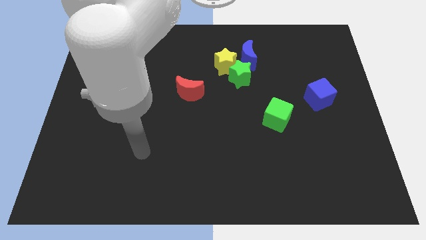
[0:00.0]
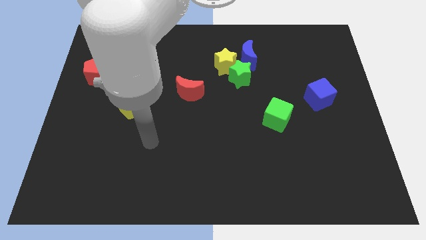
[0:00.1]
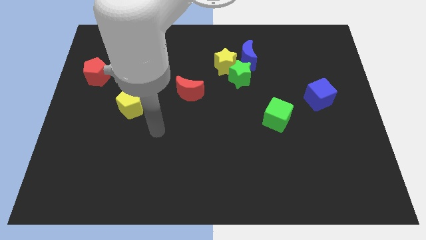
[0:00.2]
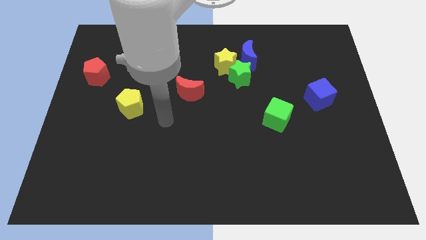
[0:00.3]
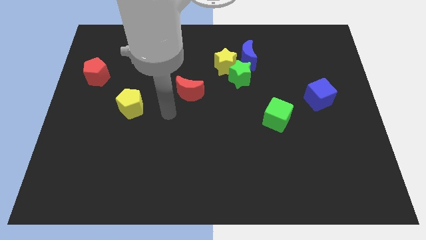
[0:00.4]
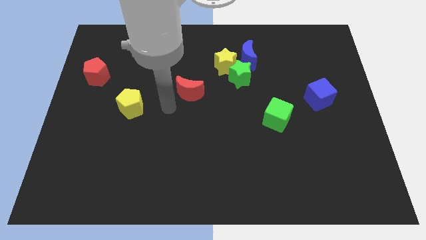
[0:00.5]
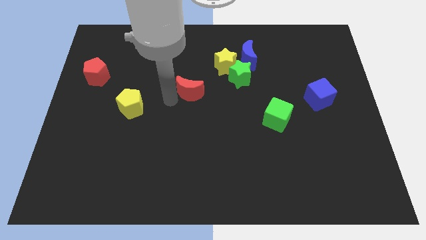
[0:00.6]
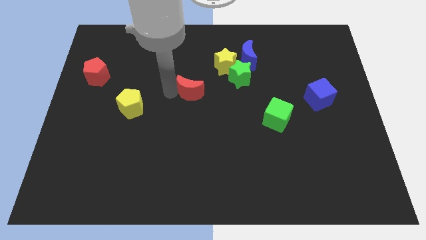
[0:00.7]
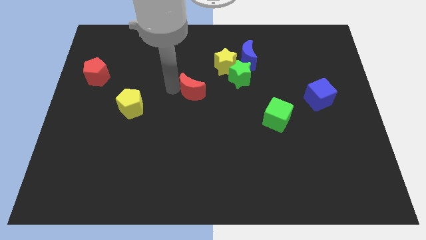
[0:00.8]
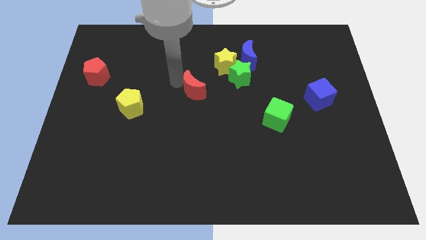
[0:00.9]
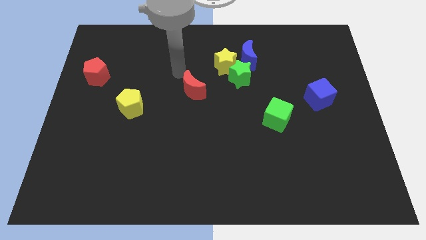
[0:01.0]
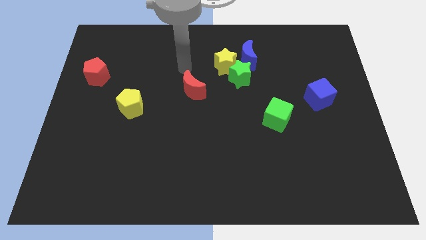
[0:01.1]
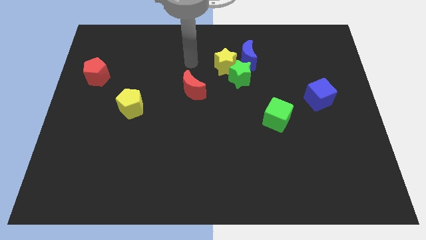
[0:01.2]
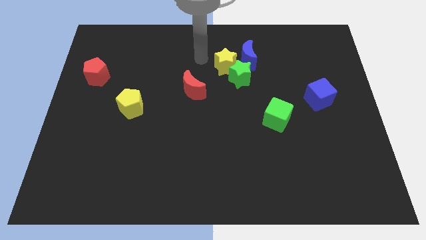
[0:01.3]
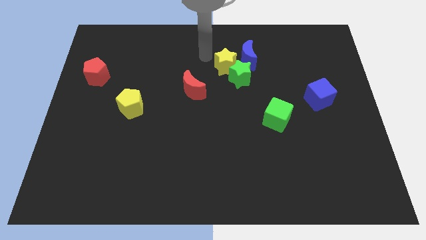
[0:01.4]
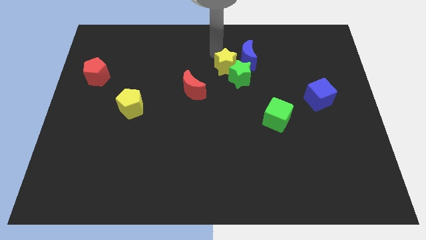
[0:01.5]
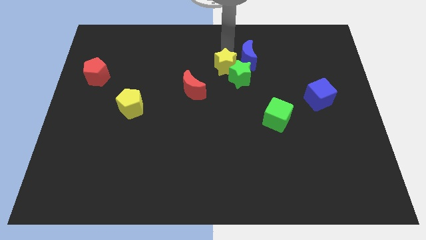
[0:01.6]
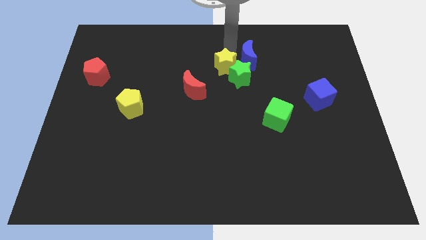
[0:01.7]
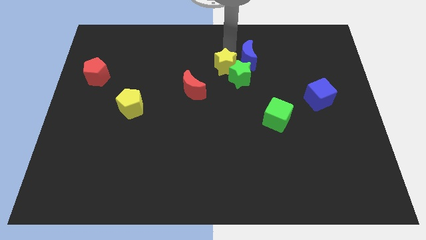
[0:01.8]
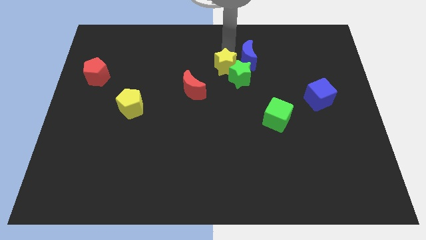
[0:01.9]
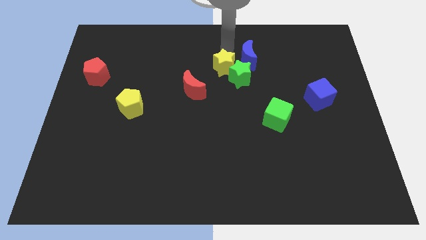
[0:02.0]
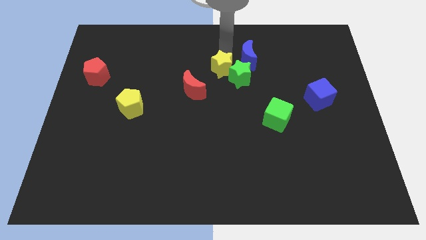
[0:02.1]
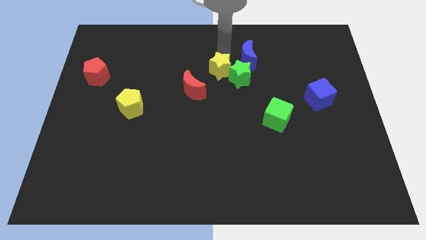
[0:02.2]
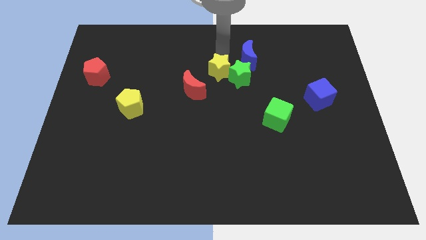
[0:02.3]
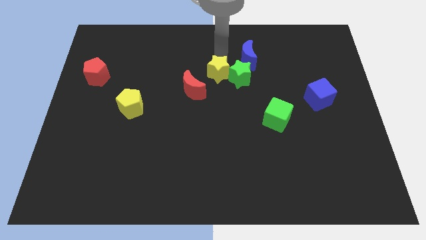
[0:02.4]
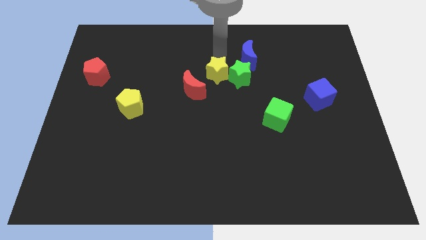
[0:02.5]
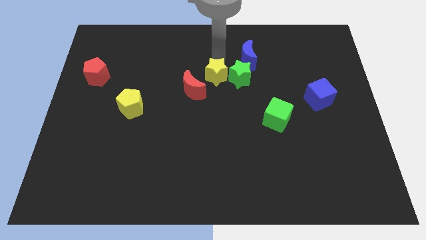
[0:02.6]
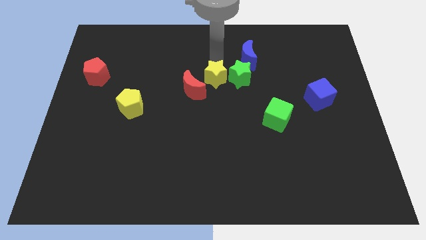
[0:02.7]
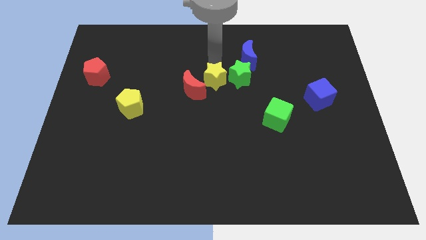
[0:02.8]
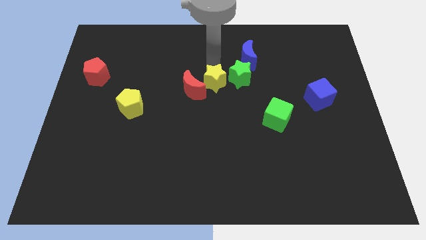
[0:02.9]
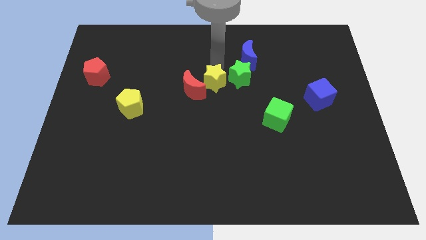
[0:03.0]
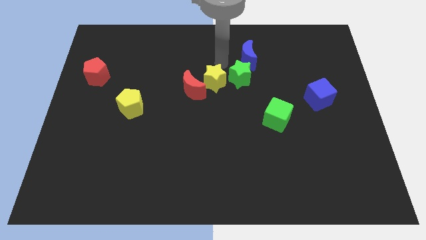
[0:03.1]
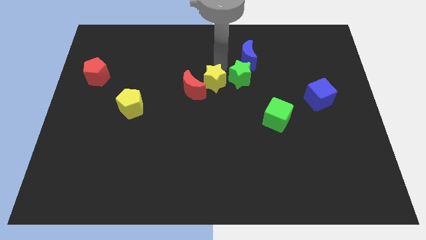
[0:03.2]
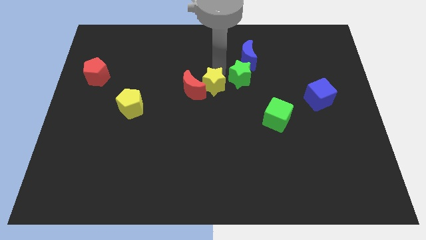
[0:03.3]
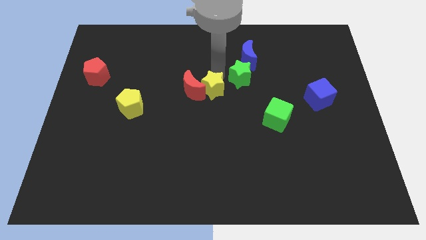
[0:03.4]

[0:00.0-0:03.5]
slide the yellow star down and left diagonally slightly

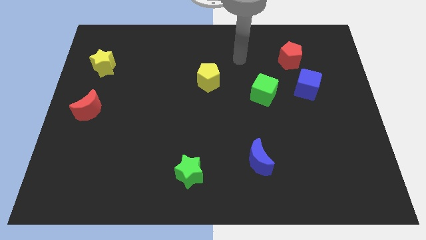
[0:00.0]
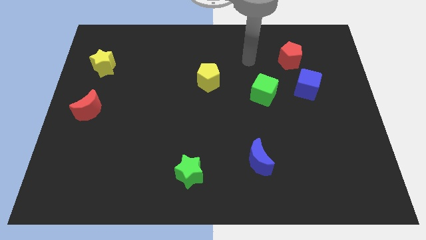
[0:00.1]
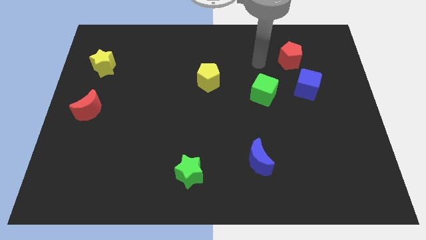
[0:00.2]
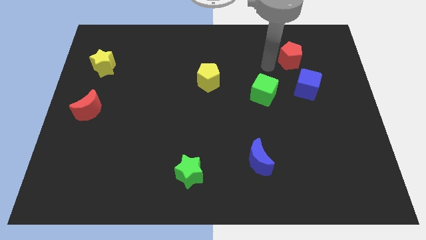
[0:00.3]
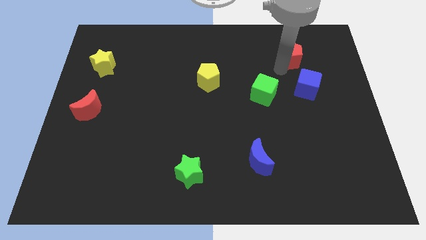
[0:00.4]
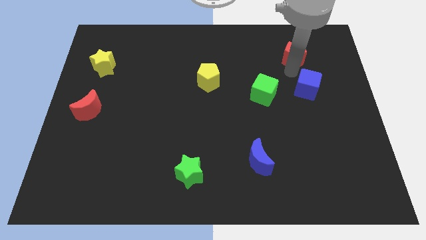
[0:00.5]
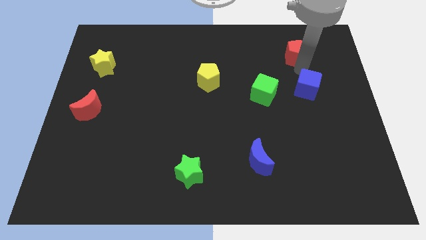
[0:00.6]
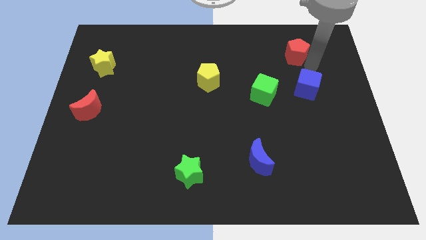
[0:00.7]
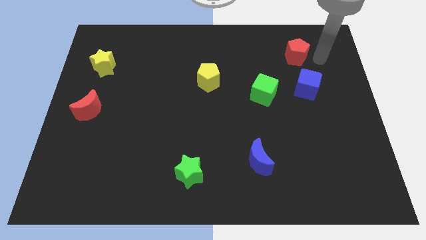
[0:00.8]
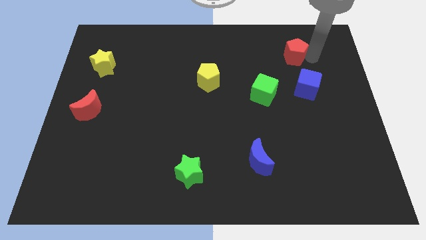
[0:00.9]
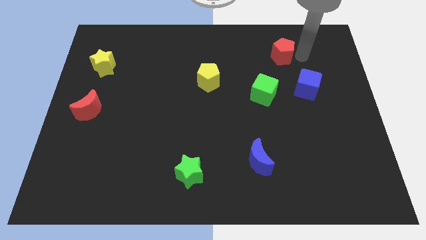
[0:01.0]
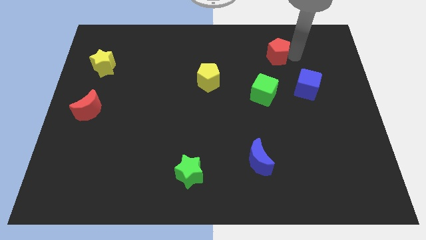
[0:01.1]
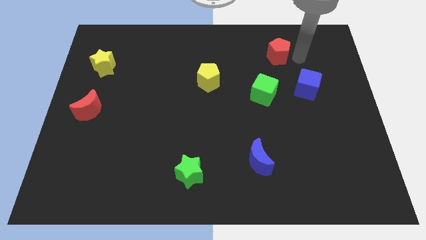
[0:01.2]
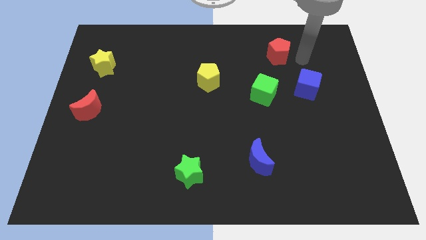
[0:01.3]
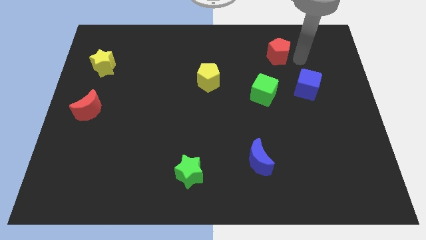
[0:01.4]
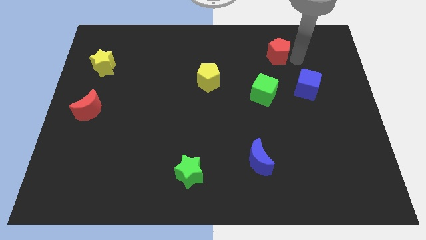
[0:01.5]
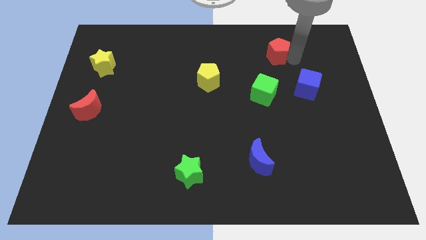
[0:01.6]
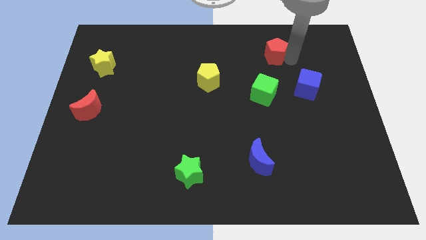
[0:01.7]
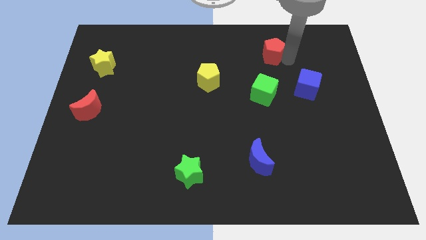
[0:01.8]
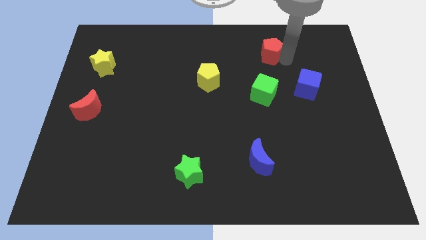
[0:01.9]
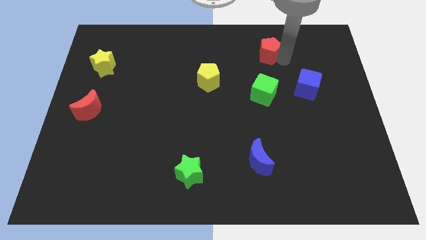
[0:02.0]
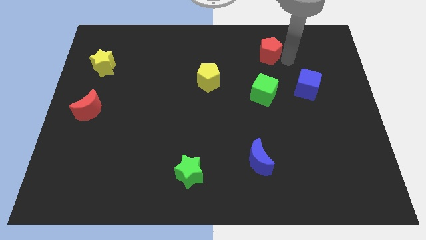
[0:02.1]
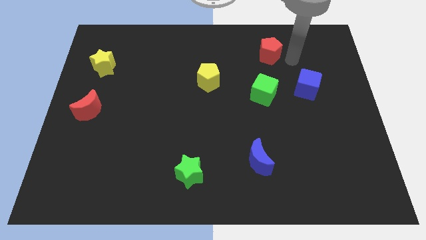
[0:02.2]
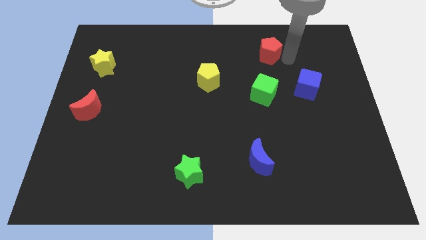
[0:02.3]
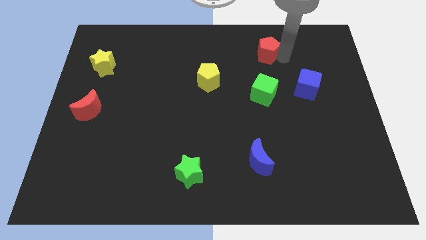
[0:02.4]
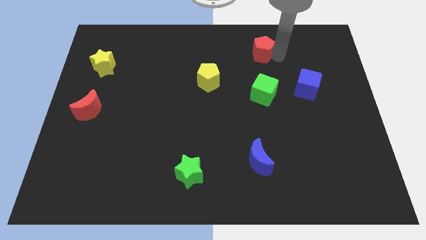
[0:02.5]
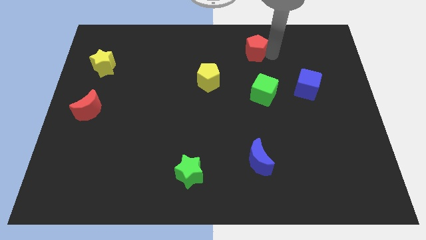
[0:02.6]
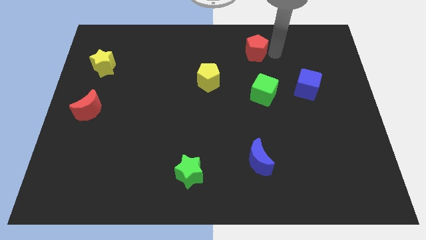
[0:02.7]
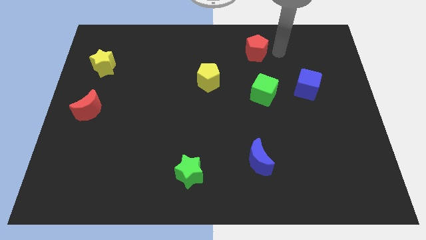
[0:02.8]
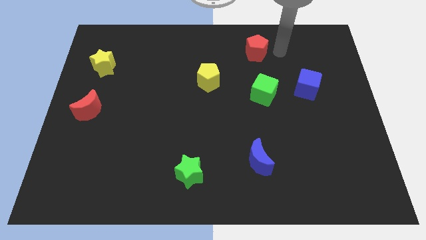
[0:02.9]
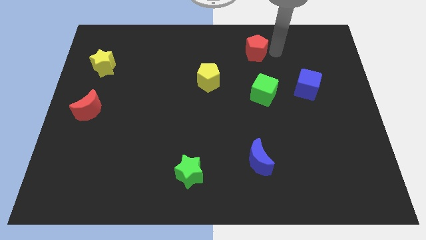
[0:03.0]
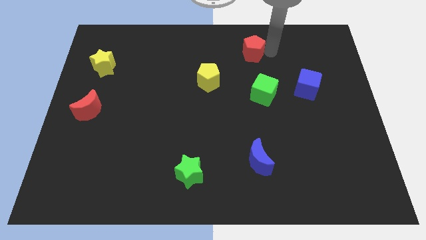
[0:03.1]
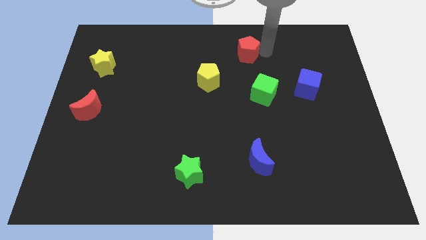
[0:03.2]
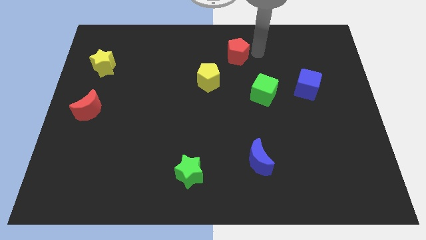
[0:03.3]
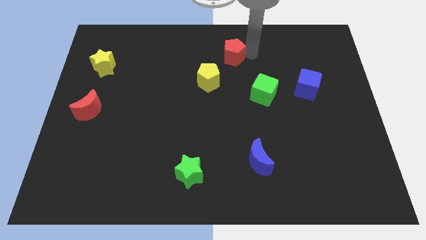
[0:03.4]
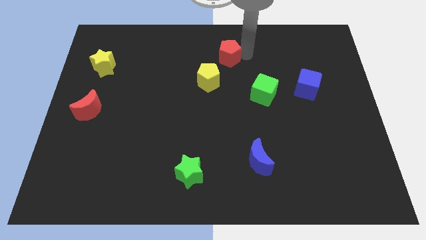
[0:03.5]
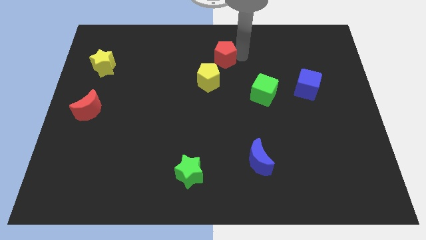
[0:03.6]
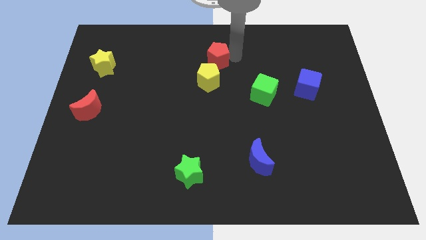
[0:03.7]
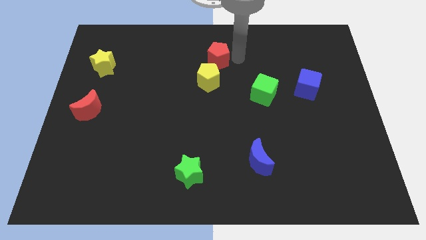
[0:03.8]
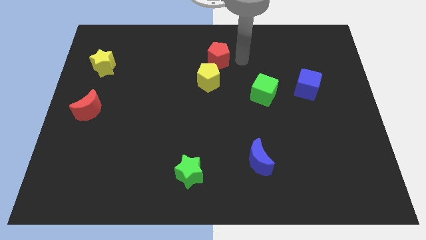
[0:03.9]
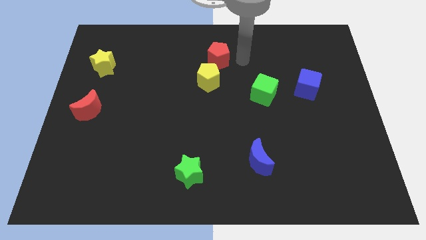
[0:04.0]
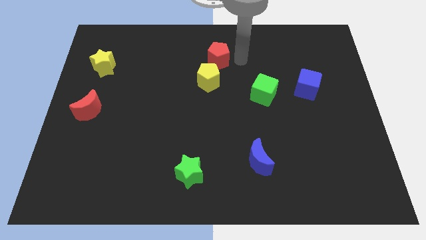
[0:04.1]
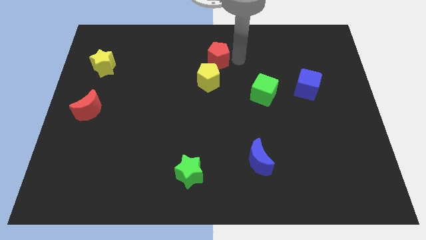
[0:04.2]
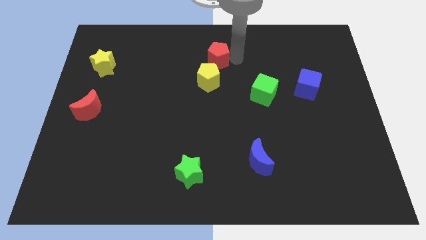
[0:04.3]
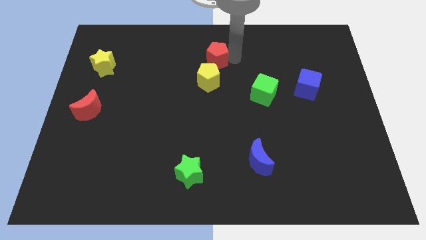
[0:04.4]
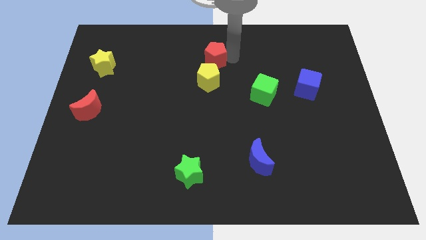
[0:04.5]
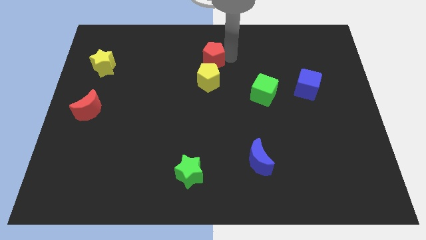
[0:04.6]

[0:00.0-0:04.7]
slide the red pentagon left
